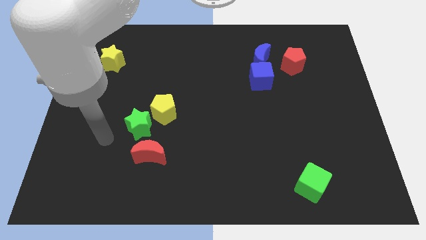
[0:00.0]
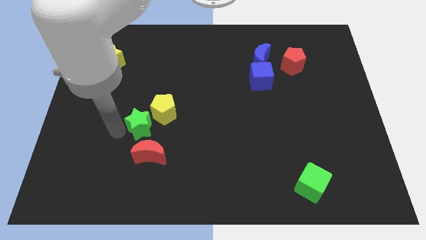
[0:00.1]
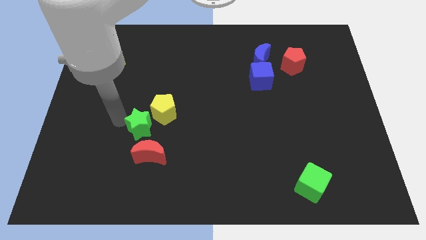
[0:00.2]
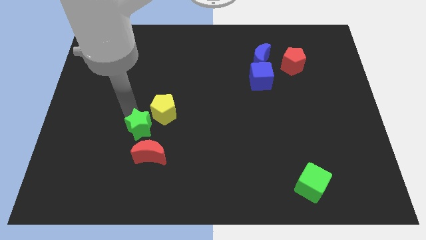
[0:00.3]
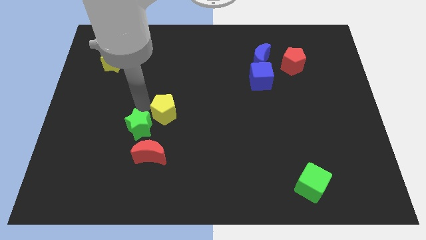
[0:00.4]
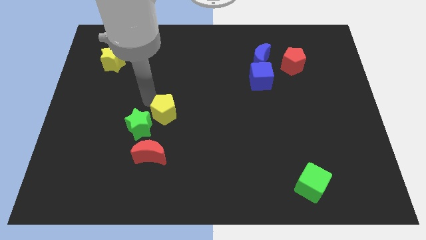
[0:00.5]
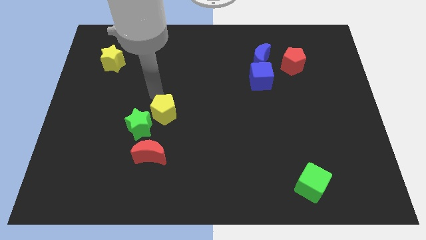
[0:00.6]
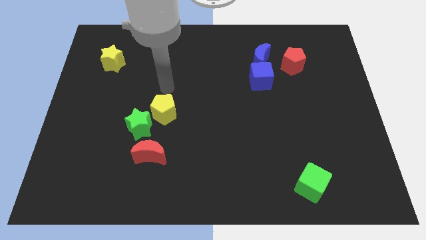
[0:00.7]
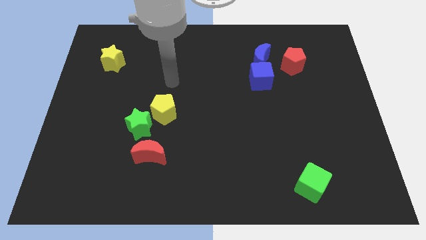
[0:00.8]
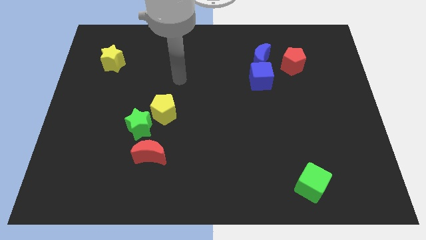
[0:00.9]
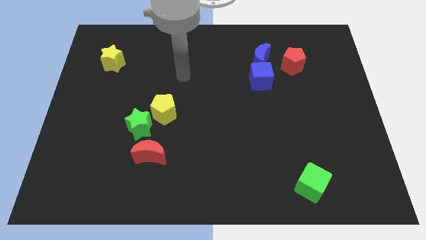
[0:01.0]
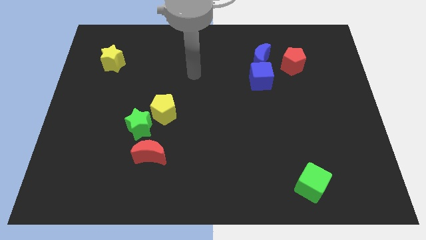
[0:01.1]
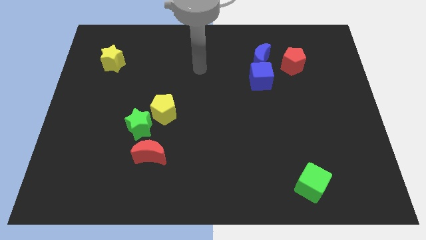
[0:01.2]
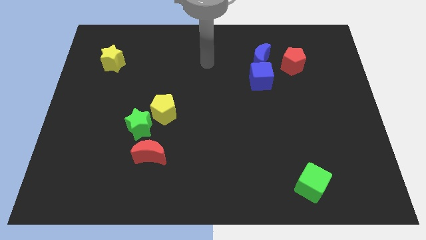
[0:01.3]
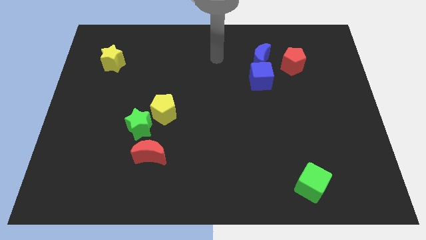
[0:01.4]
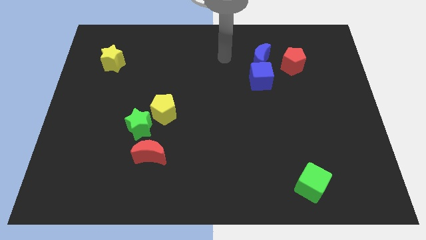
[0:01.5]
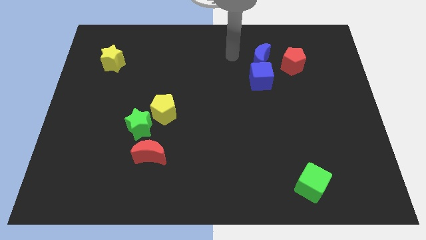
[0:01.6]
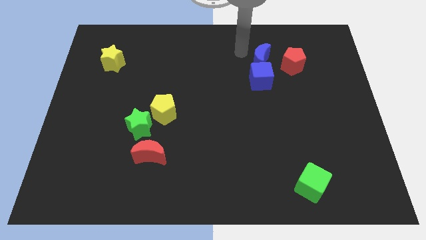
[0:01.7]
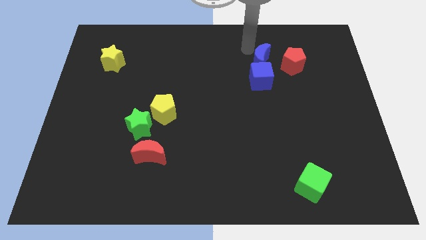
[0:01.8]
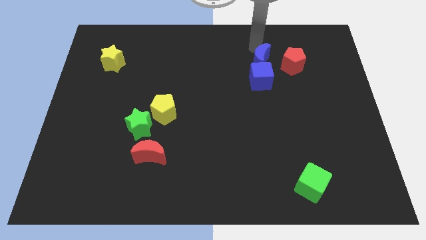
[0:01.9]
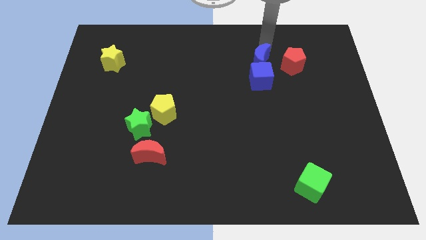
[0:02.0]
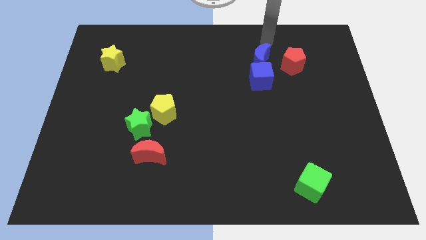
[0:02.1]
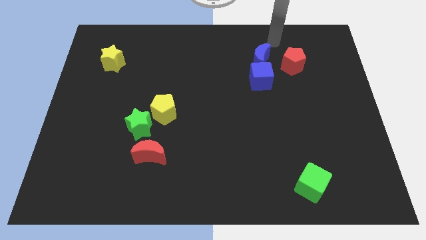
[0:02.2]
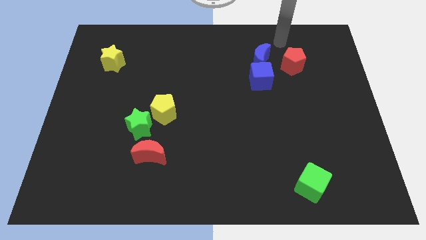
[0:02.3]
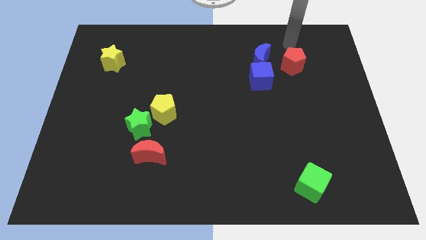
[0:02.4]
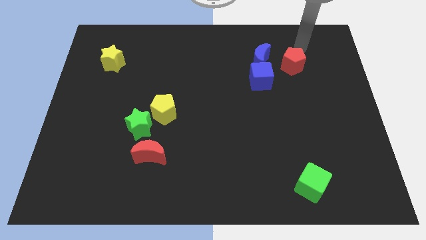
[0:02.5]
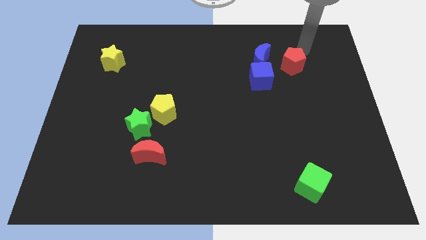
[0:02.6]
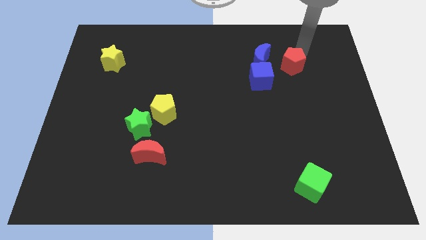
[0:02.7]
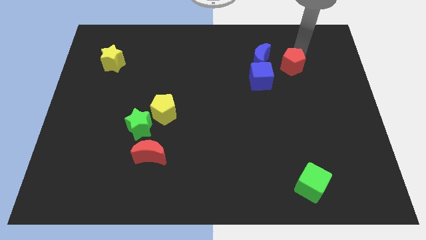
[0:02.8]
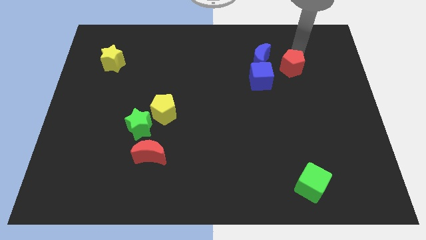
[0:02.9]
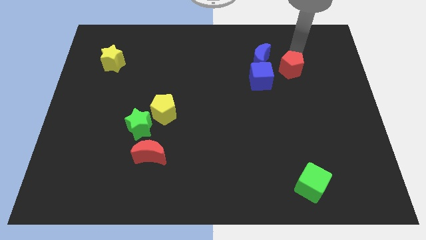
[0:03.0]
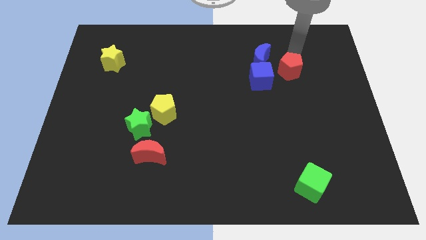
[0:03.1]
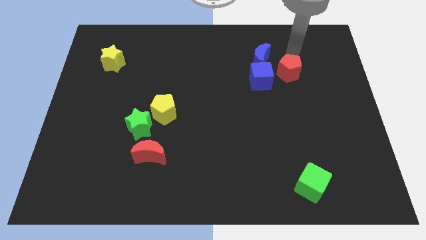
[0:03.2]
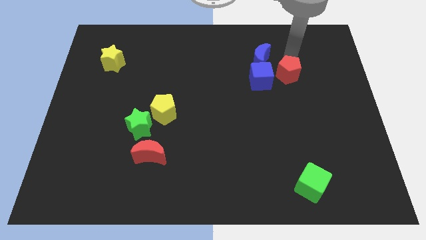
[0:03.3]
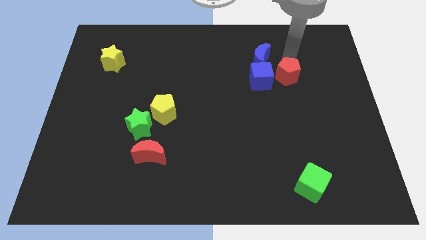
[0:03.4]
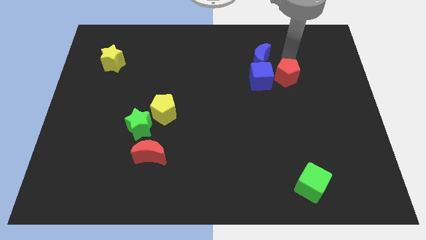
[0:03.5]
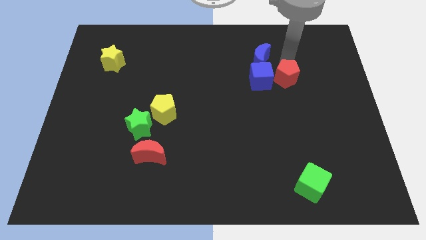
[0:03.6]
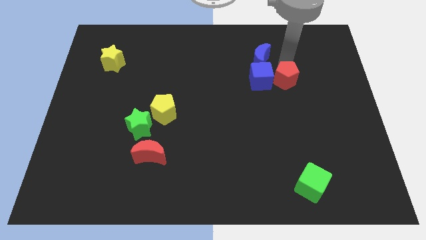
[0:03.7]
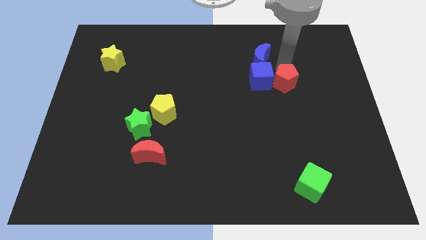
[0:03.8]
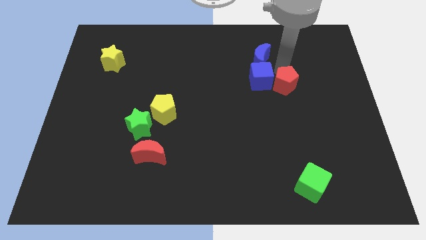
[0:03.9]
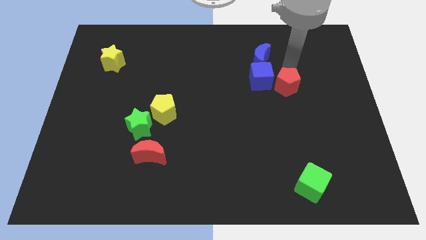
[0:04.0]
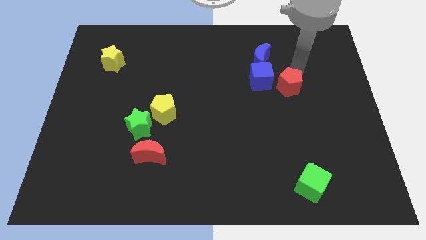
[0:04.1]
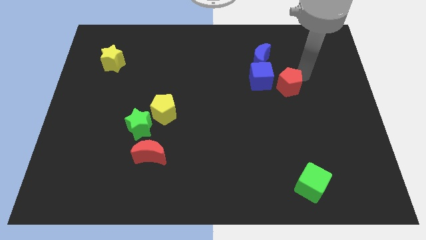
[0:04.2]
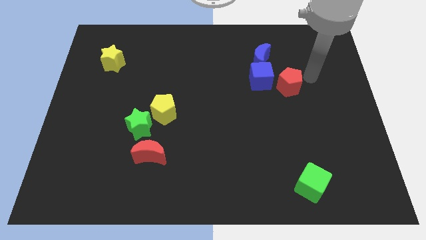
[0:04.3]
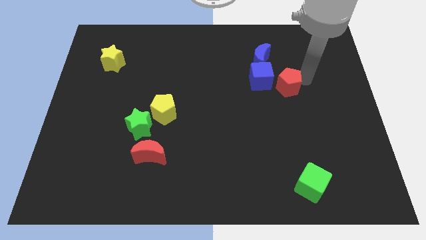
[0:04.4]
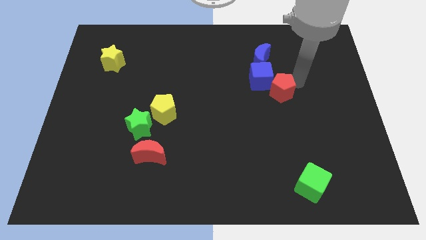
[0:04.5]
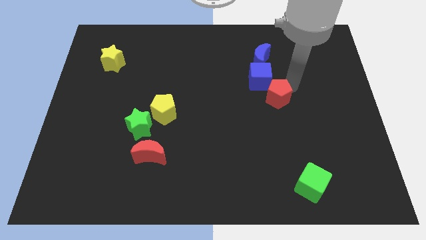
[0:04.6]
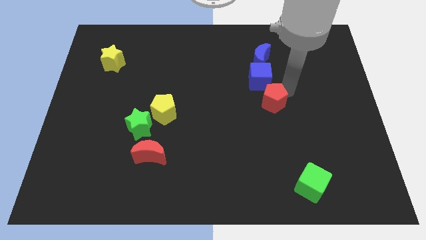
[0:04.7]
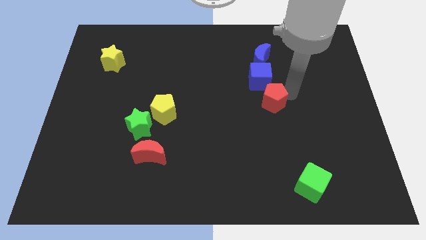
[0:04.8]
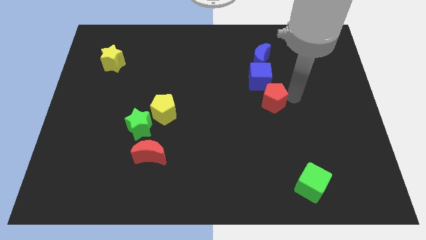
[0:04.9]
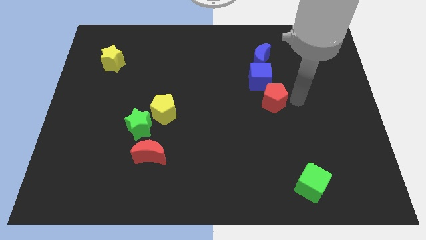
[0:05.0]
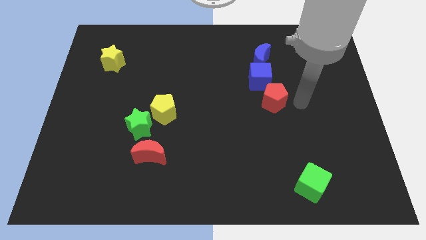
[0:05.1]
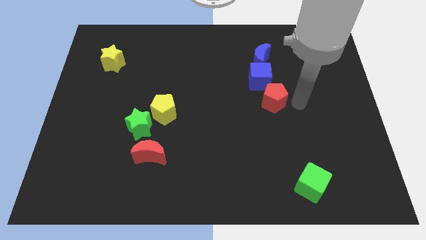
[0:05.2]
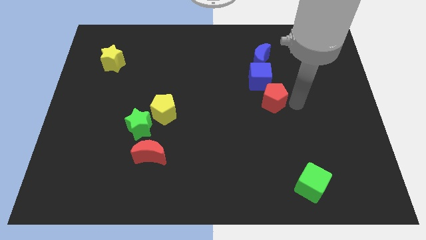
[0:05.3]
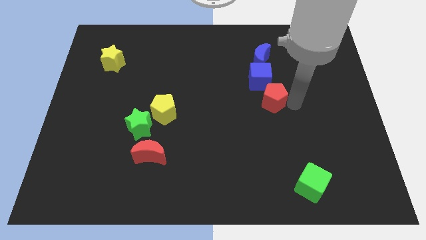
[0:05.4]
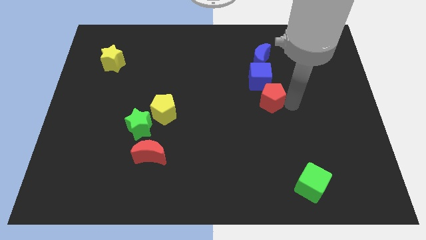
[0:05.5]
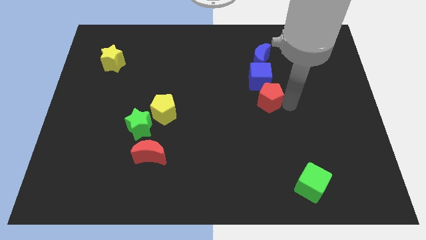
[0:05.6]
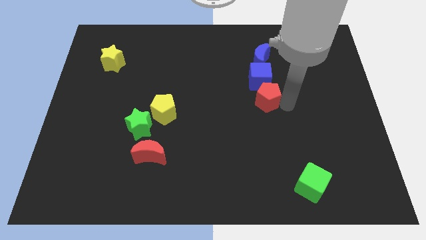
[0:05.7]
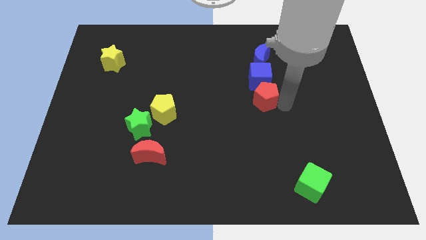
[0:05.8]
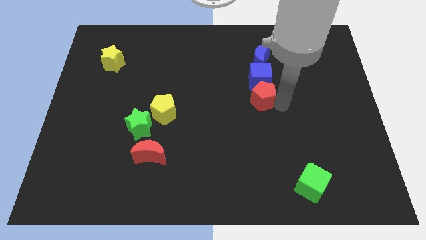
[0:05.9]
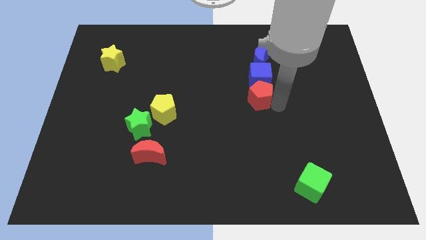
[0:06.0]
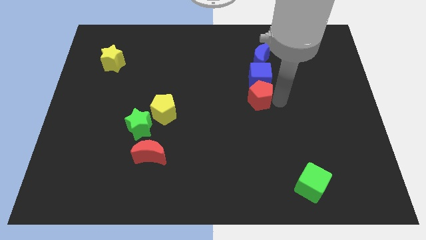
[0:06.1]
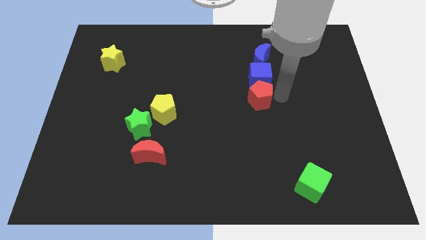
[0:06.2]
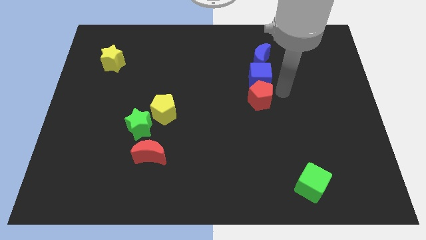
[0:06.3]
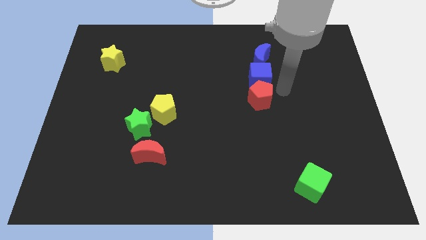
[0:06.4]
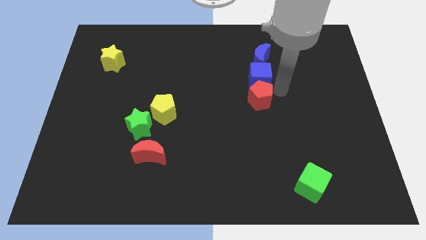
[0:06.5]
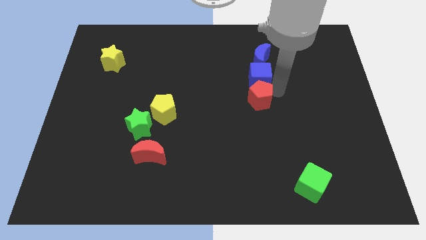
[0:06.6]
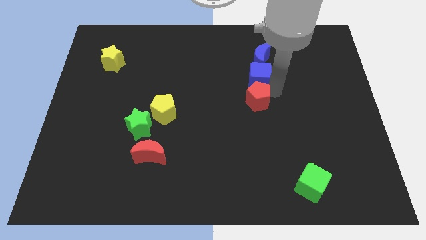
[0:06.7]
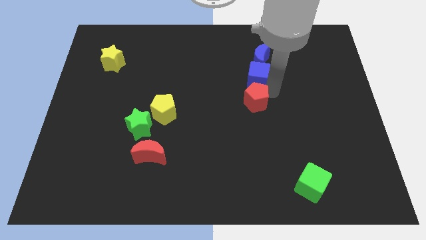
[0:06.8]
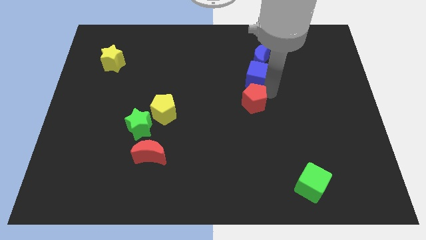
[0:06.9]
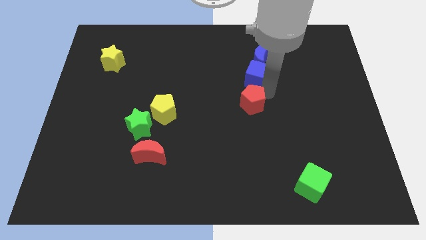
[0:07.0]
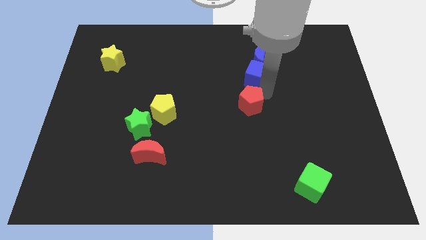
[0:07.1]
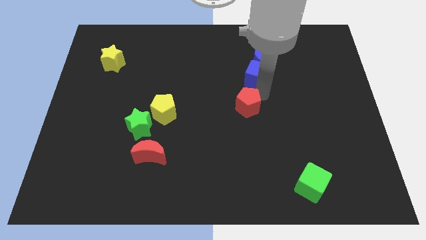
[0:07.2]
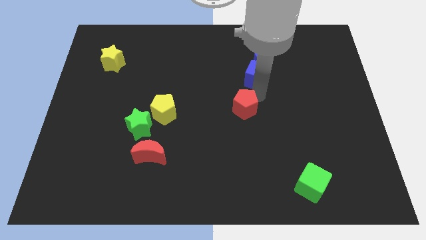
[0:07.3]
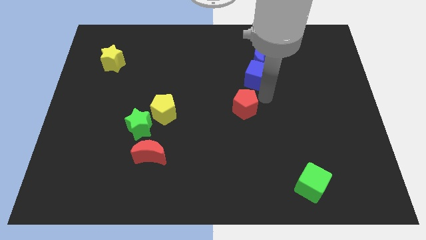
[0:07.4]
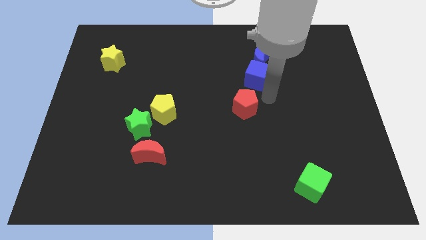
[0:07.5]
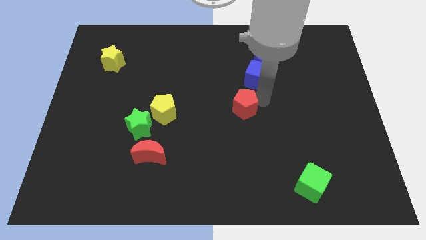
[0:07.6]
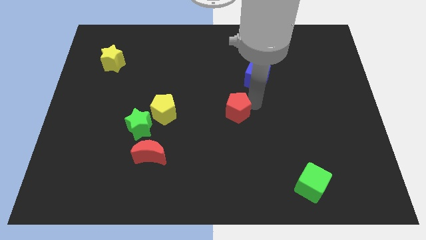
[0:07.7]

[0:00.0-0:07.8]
slide the red pentagon down and left diagonally
